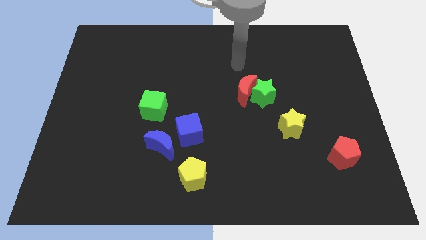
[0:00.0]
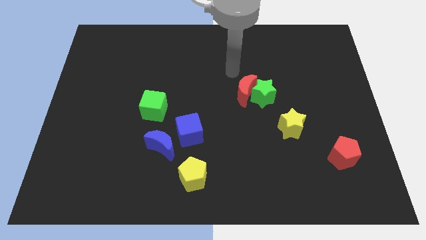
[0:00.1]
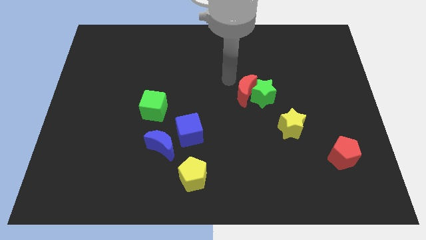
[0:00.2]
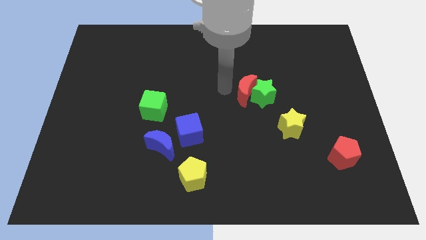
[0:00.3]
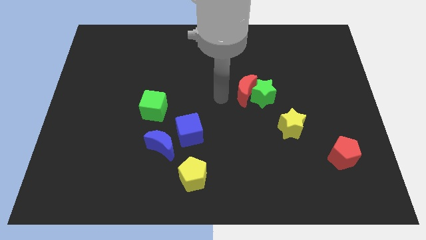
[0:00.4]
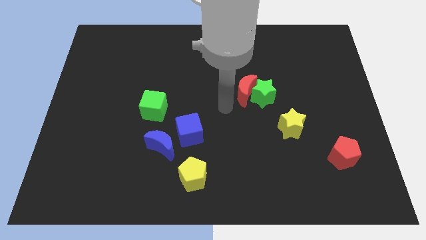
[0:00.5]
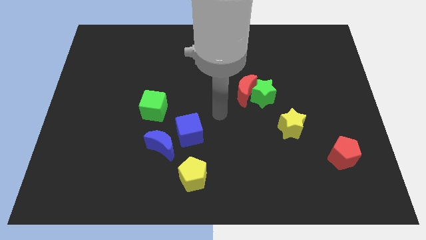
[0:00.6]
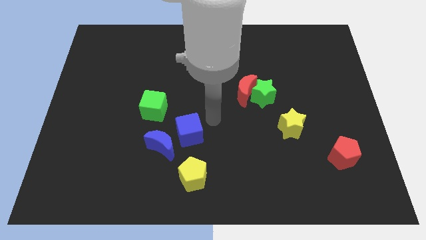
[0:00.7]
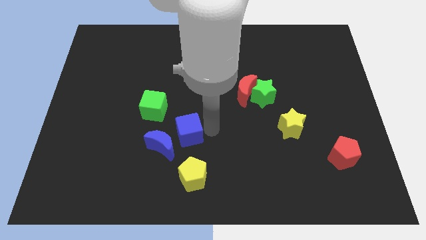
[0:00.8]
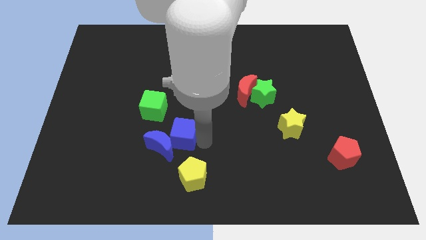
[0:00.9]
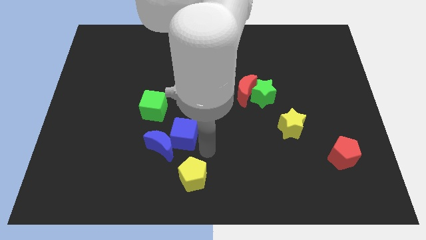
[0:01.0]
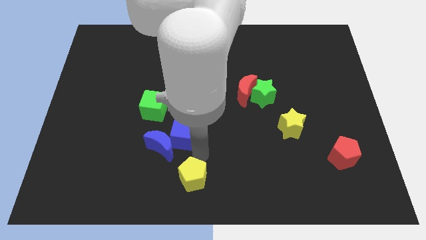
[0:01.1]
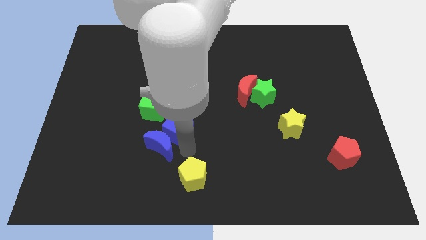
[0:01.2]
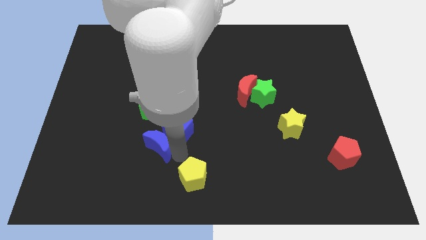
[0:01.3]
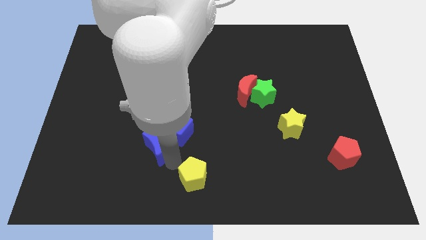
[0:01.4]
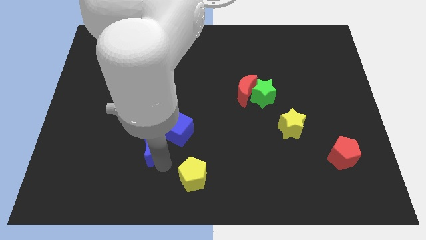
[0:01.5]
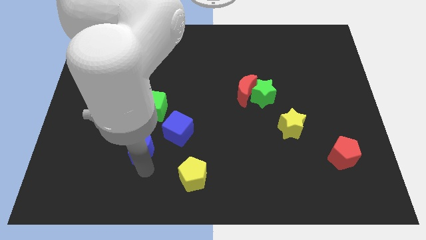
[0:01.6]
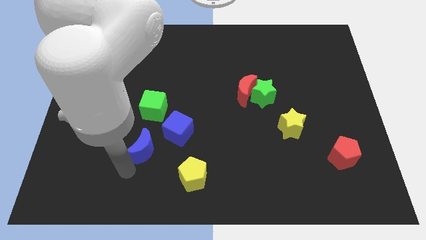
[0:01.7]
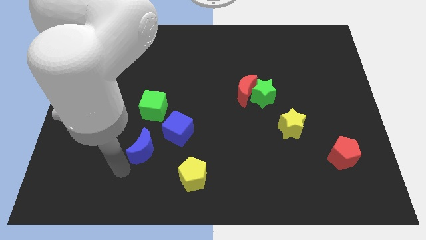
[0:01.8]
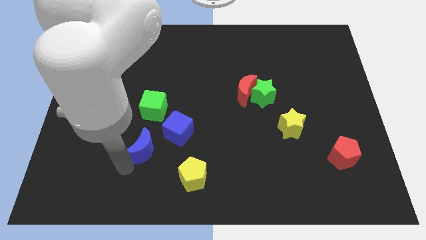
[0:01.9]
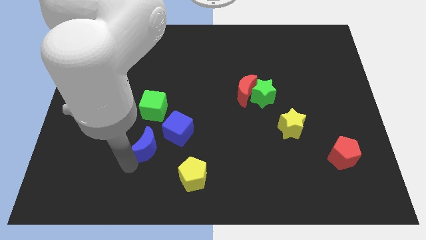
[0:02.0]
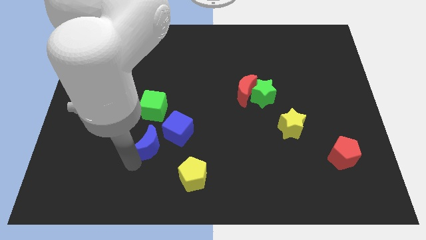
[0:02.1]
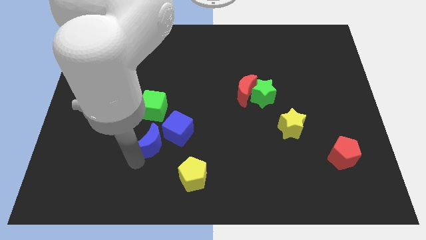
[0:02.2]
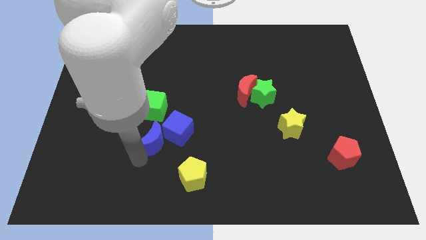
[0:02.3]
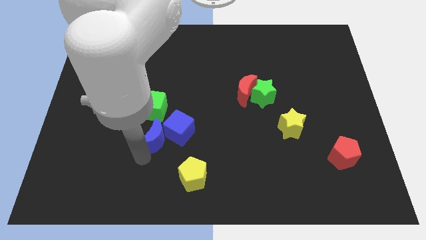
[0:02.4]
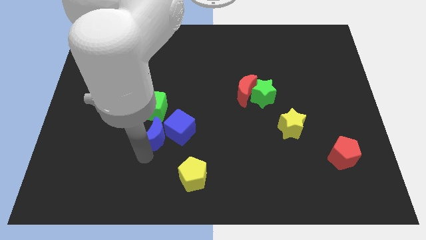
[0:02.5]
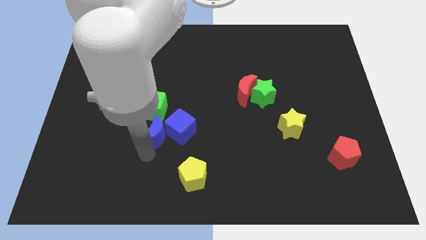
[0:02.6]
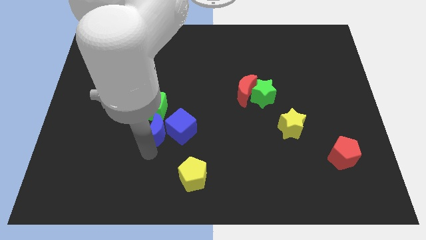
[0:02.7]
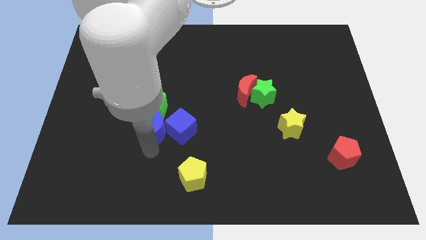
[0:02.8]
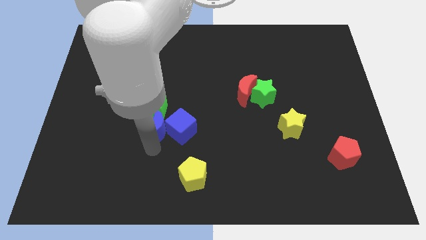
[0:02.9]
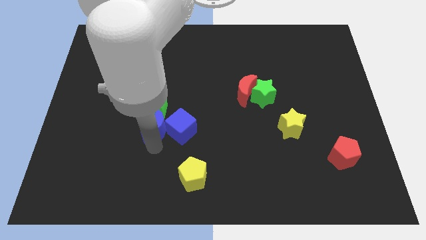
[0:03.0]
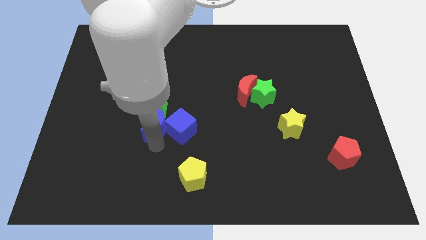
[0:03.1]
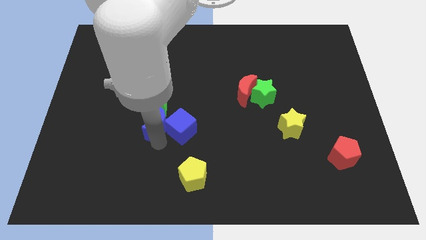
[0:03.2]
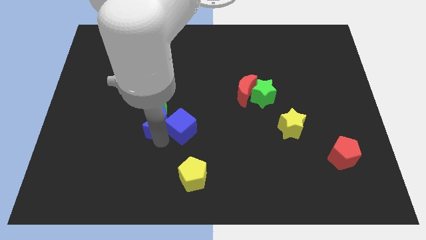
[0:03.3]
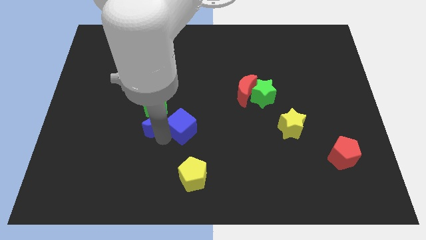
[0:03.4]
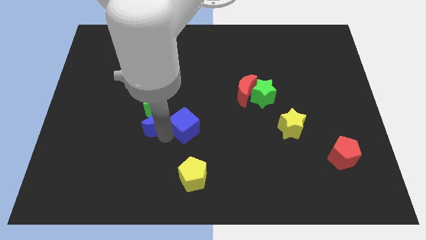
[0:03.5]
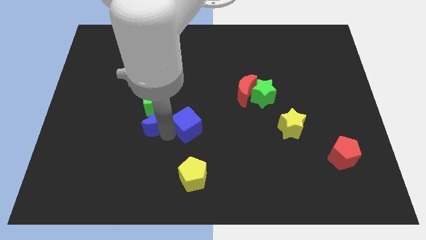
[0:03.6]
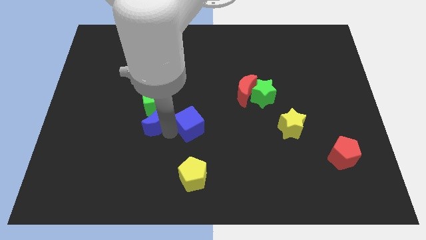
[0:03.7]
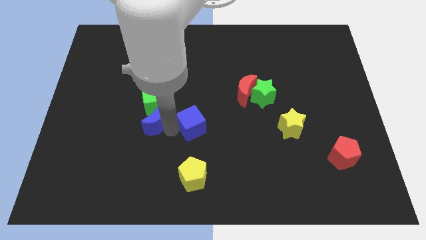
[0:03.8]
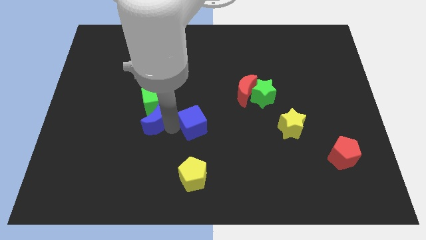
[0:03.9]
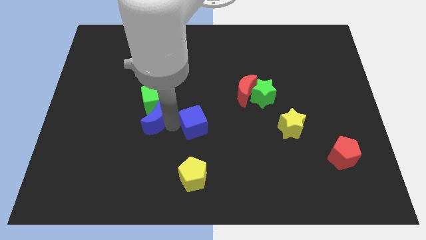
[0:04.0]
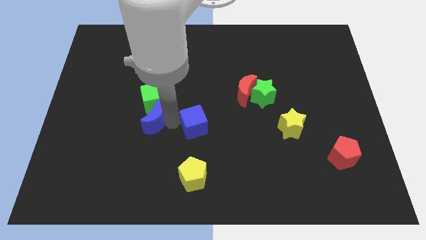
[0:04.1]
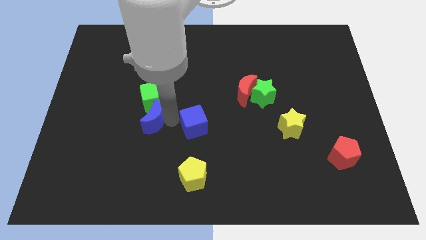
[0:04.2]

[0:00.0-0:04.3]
move the blue moon upwards somewhat

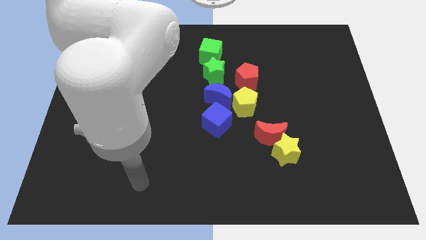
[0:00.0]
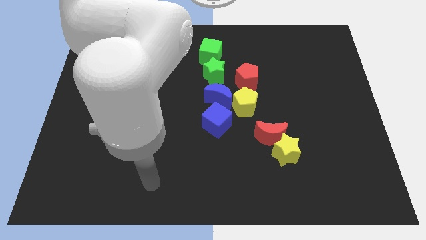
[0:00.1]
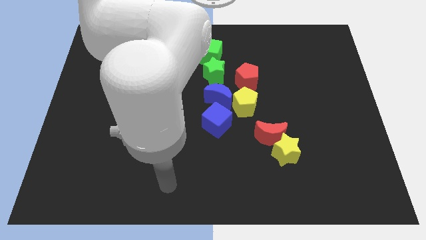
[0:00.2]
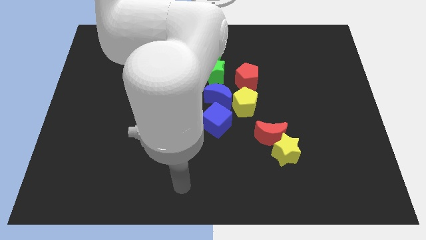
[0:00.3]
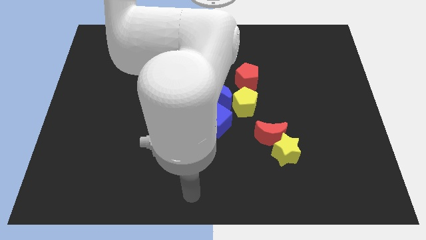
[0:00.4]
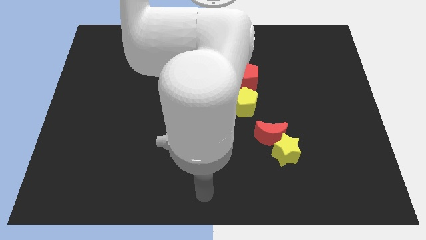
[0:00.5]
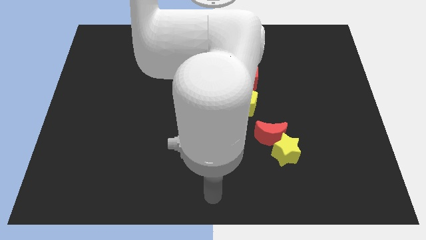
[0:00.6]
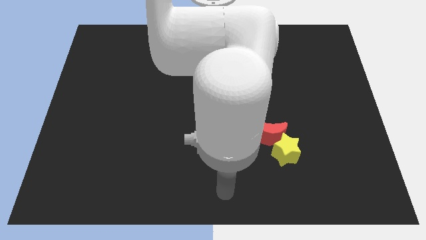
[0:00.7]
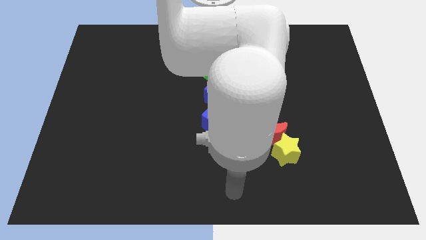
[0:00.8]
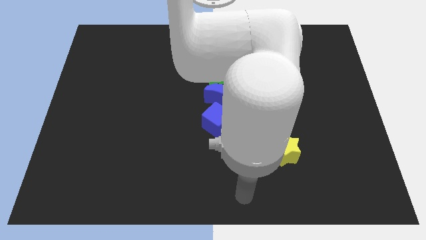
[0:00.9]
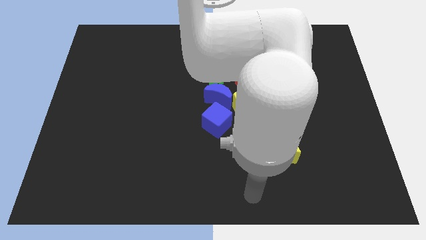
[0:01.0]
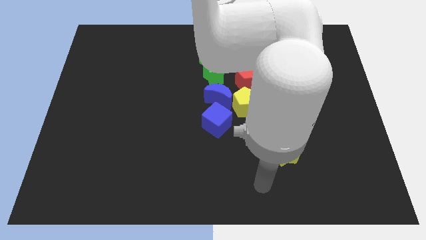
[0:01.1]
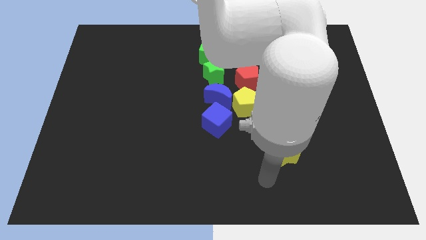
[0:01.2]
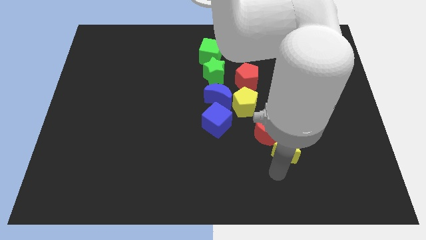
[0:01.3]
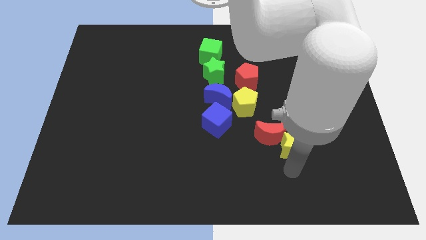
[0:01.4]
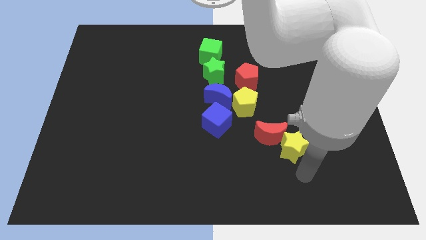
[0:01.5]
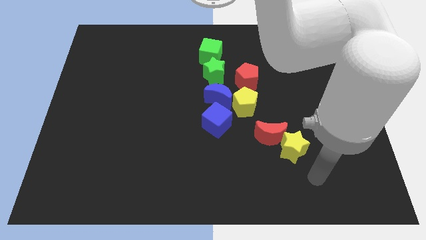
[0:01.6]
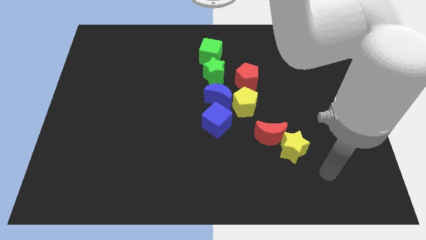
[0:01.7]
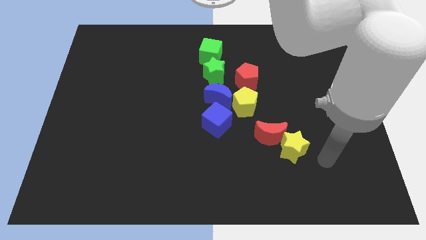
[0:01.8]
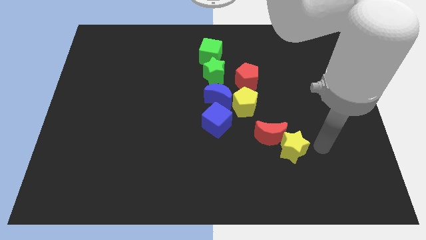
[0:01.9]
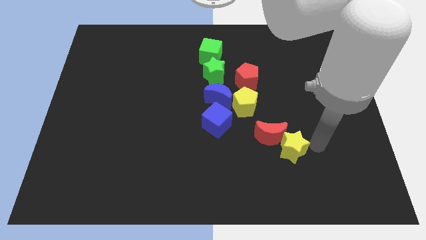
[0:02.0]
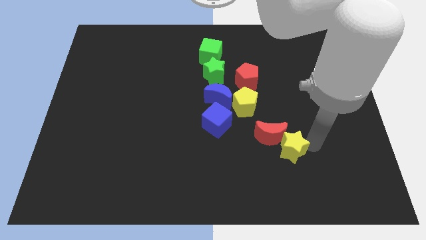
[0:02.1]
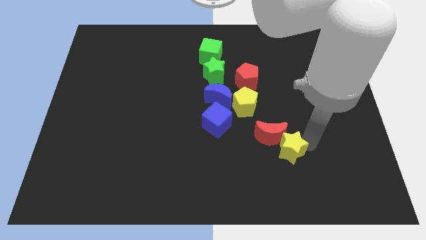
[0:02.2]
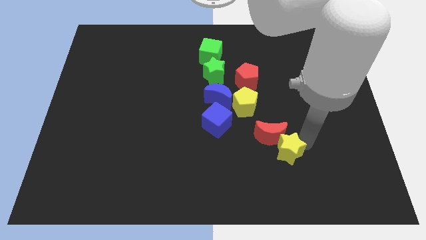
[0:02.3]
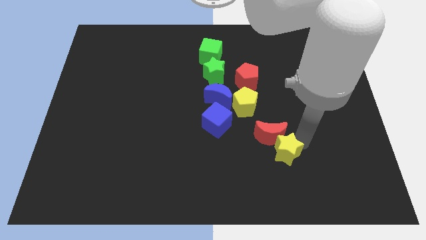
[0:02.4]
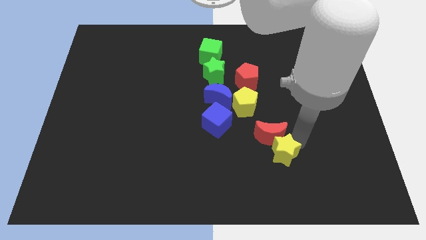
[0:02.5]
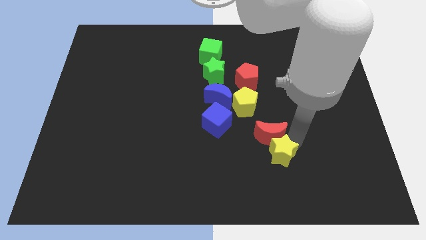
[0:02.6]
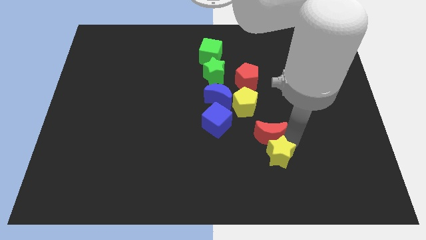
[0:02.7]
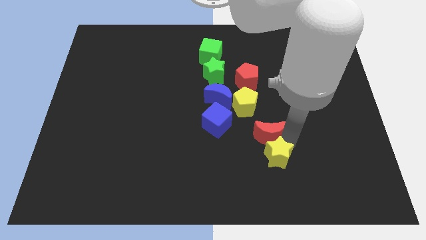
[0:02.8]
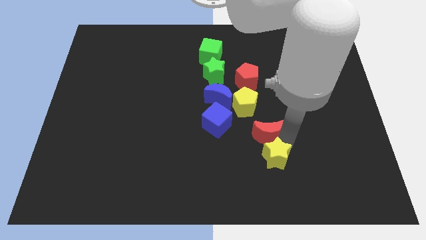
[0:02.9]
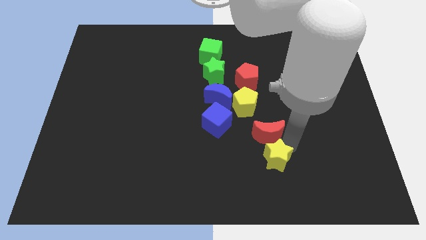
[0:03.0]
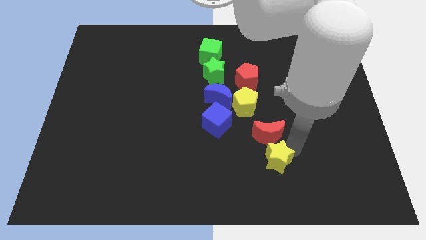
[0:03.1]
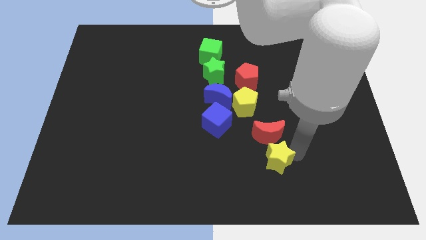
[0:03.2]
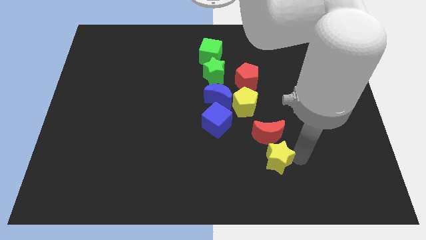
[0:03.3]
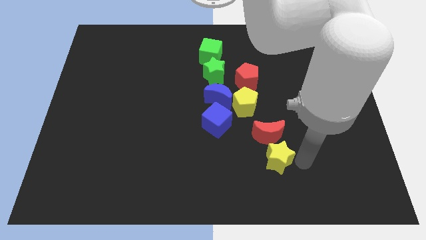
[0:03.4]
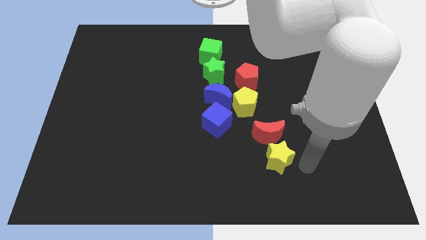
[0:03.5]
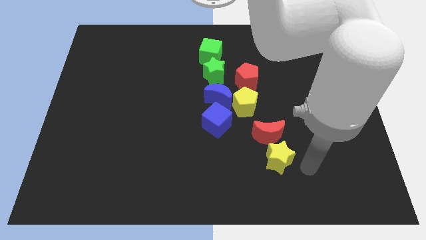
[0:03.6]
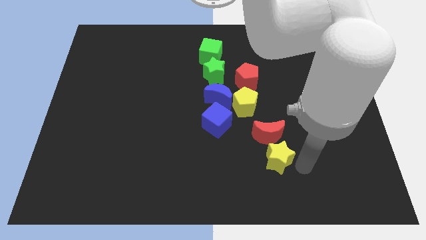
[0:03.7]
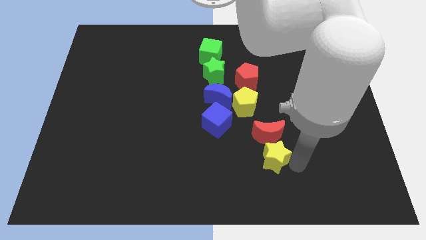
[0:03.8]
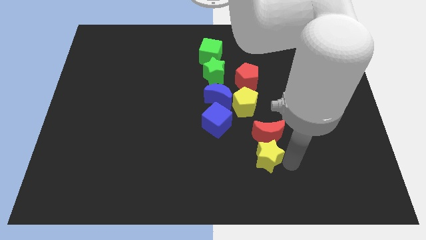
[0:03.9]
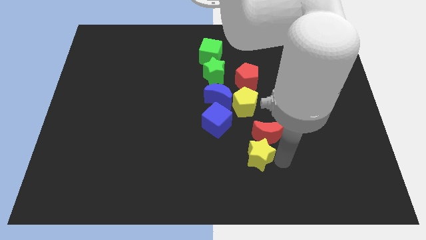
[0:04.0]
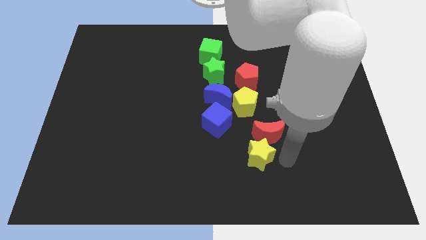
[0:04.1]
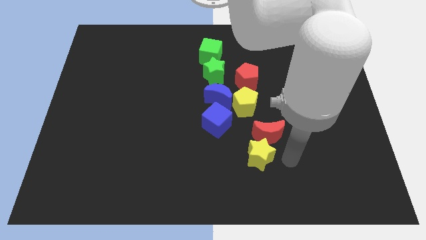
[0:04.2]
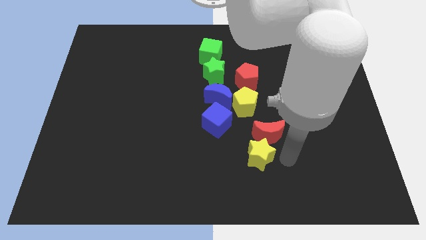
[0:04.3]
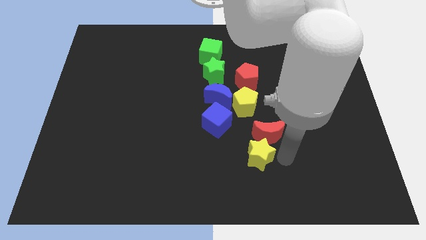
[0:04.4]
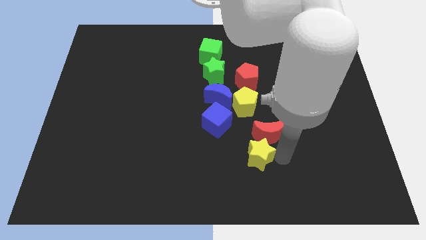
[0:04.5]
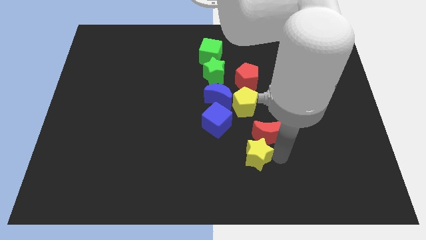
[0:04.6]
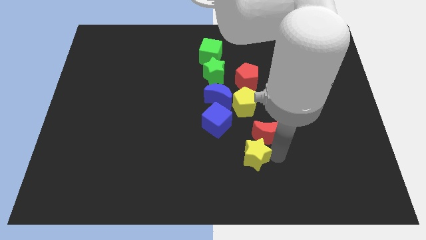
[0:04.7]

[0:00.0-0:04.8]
slightly slide the yellow star left
